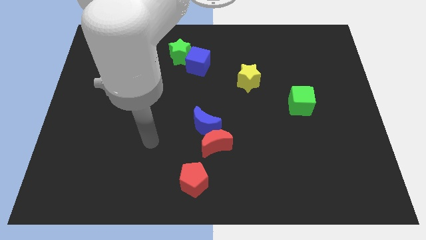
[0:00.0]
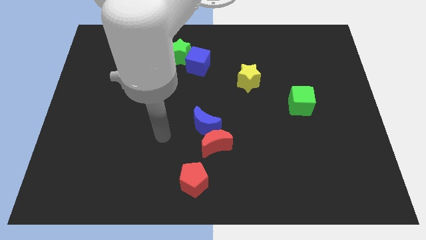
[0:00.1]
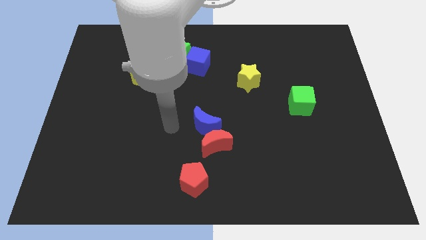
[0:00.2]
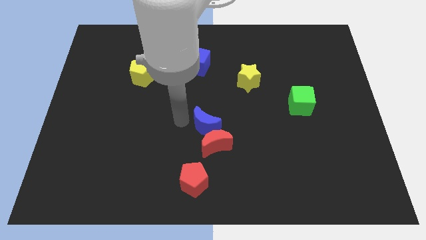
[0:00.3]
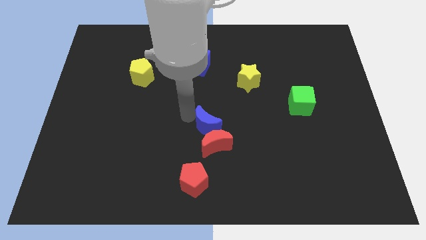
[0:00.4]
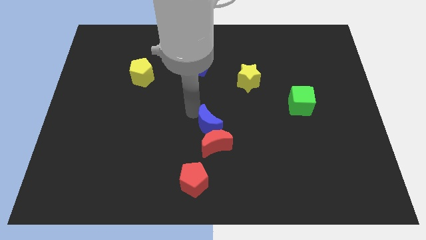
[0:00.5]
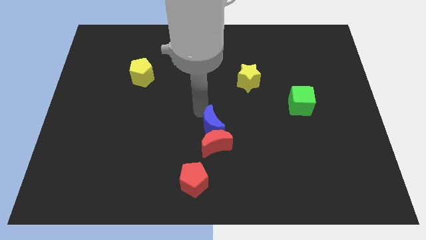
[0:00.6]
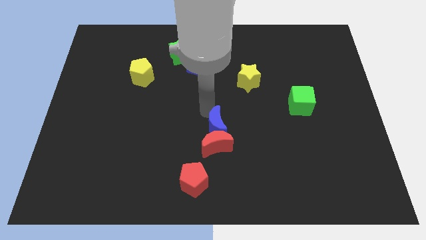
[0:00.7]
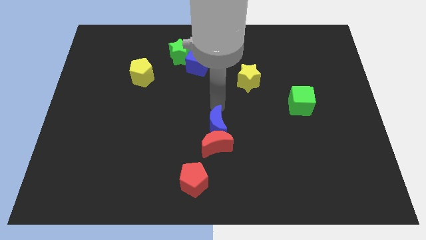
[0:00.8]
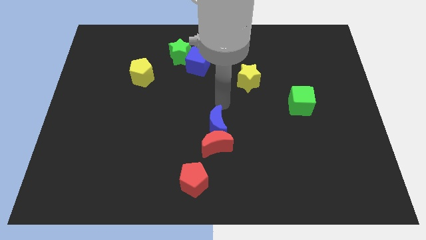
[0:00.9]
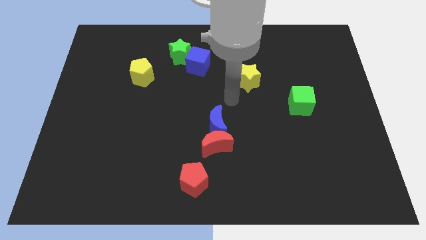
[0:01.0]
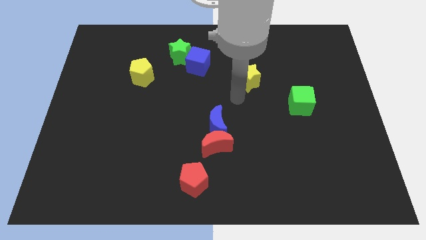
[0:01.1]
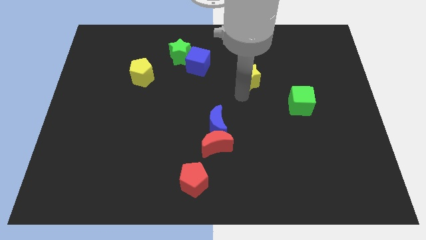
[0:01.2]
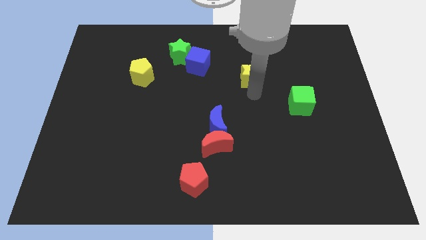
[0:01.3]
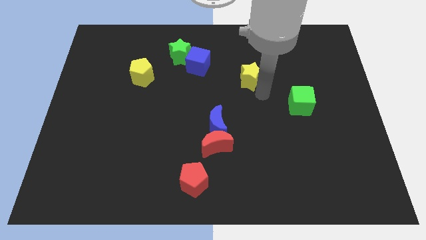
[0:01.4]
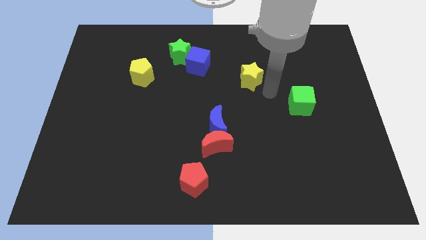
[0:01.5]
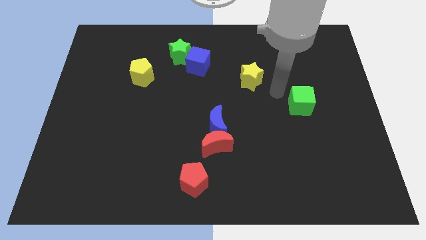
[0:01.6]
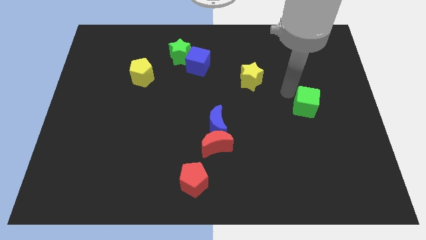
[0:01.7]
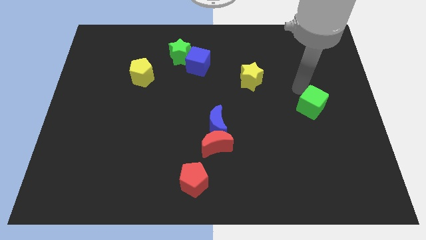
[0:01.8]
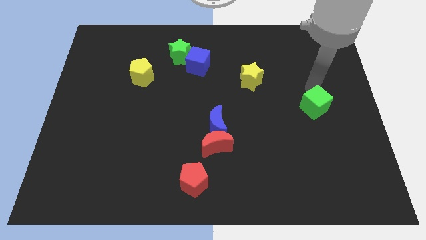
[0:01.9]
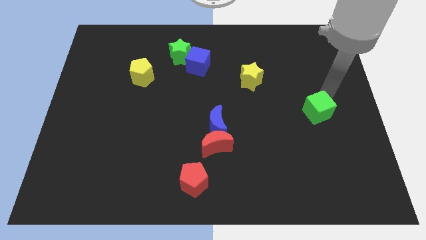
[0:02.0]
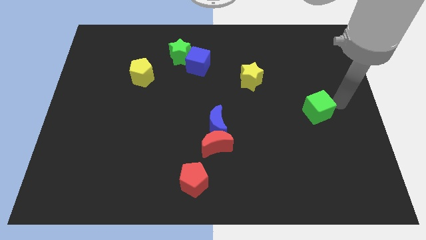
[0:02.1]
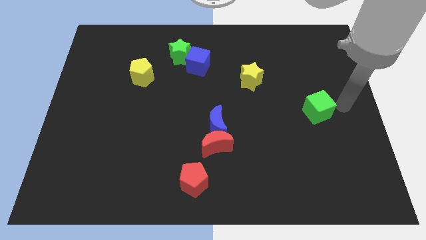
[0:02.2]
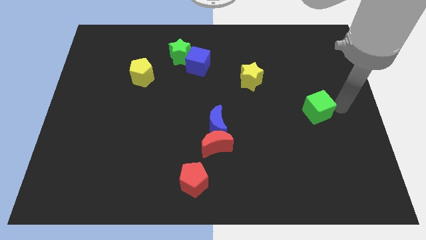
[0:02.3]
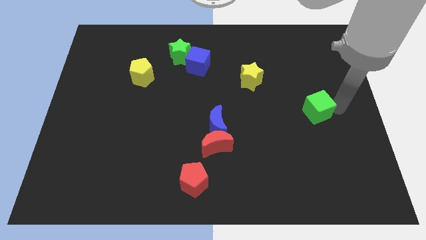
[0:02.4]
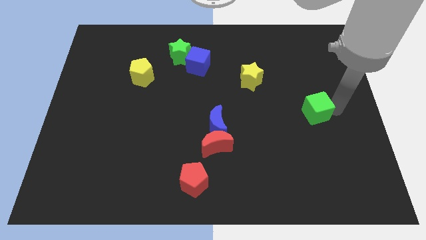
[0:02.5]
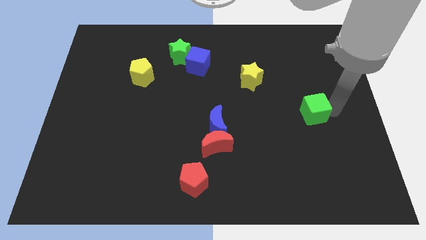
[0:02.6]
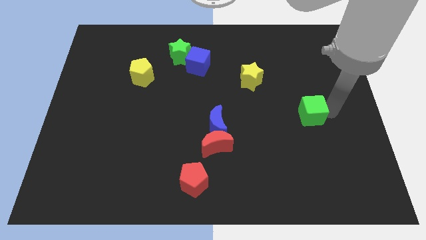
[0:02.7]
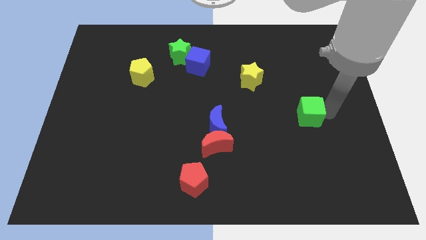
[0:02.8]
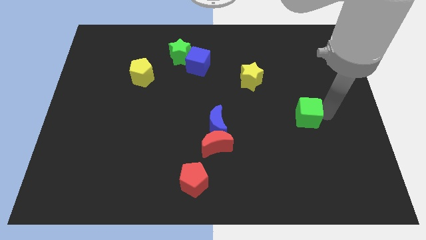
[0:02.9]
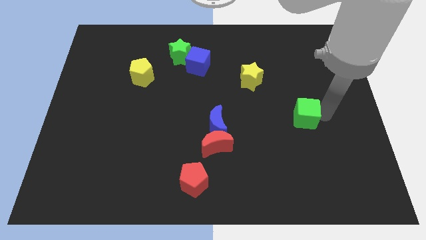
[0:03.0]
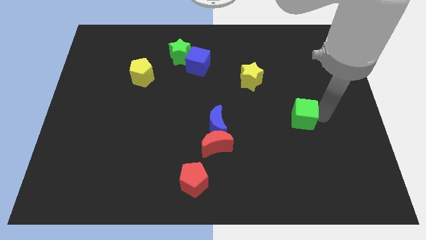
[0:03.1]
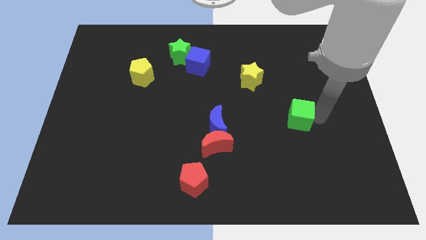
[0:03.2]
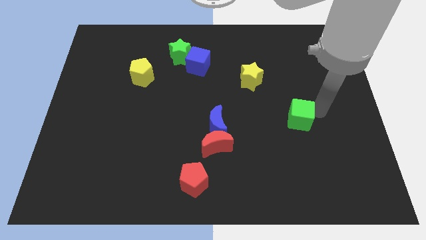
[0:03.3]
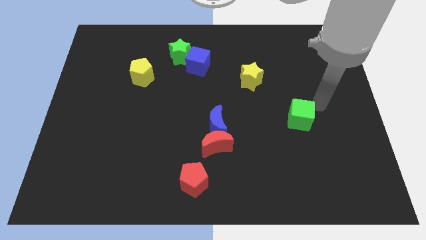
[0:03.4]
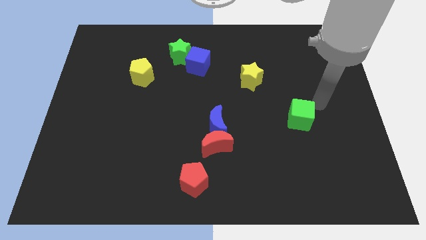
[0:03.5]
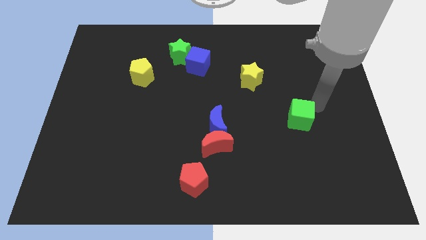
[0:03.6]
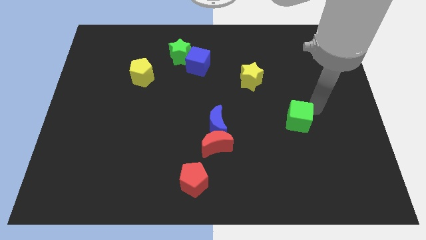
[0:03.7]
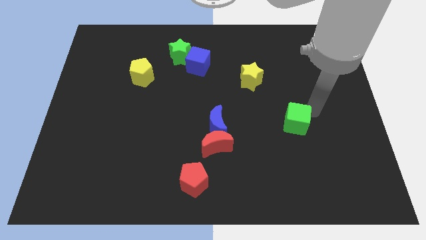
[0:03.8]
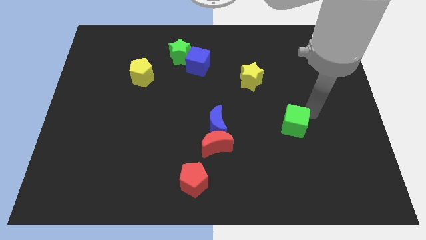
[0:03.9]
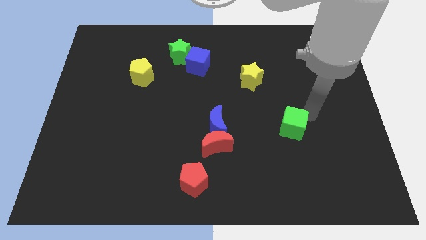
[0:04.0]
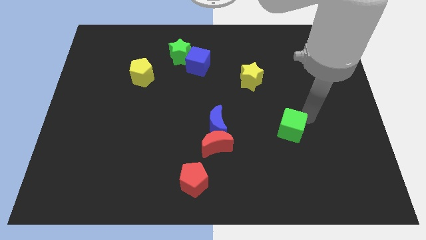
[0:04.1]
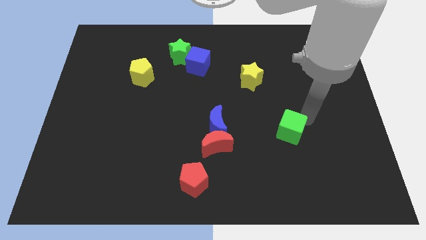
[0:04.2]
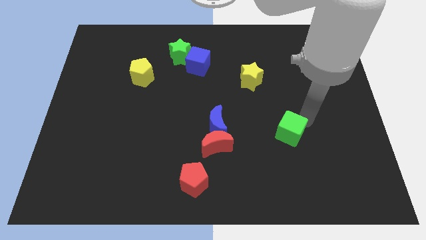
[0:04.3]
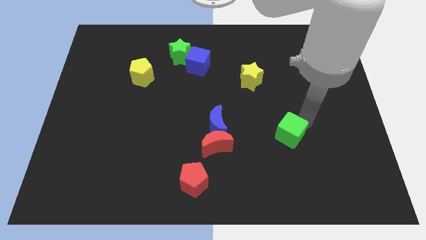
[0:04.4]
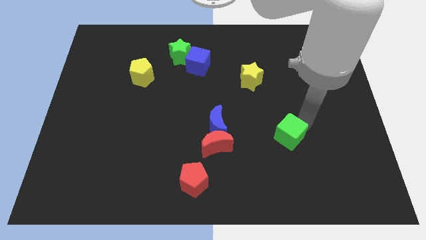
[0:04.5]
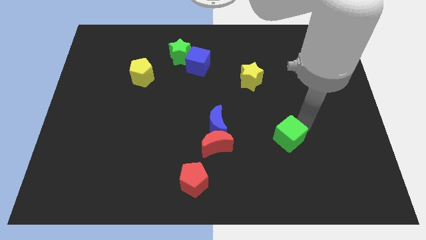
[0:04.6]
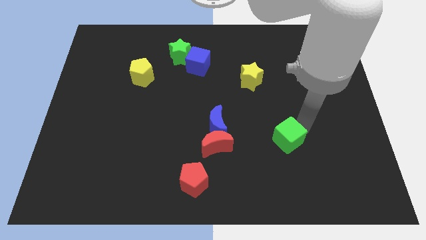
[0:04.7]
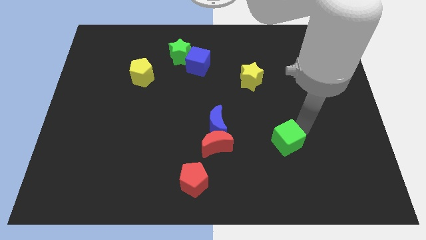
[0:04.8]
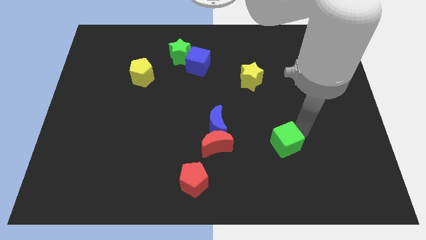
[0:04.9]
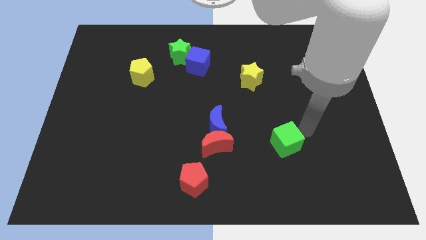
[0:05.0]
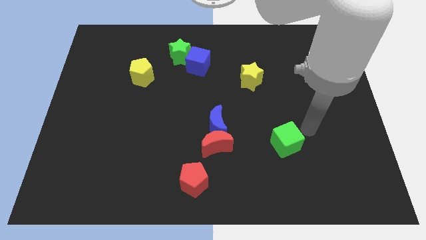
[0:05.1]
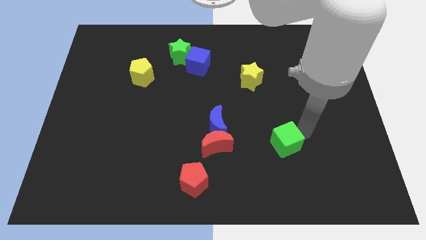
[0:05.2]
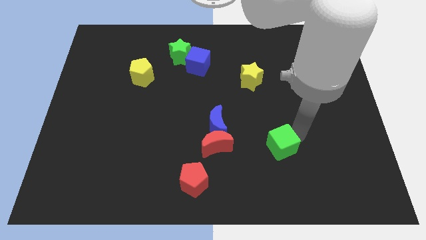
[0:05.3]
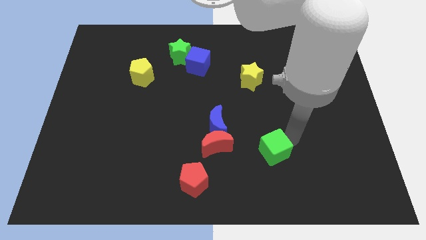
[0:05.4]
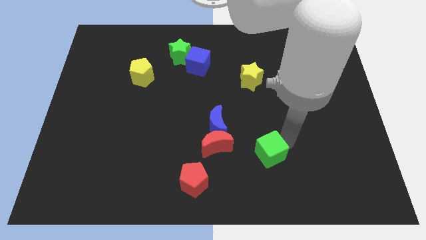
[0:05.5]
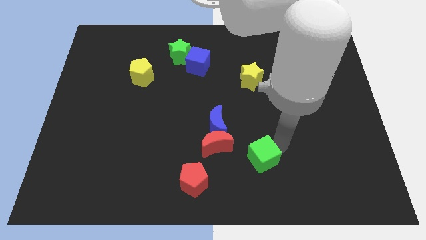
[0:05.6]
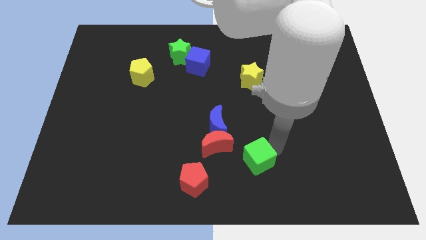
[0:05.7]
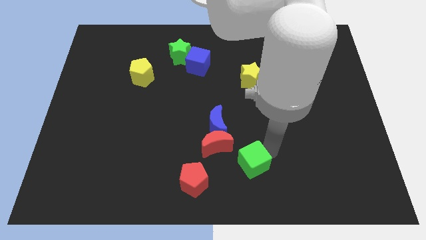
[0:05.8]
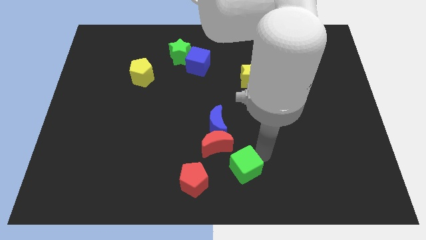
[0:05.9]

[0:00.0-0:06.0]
put the green cube to the bottom side

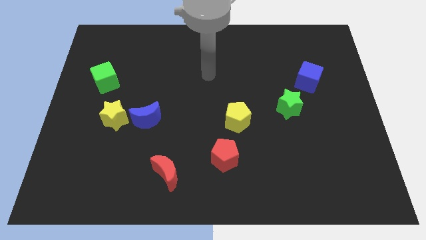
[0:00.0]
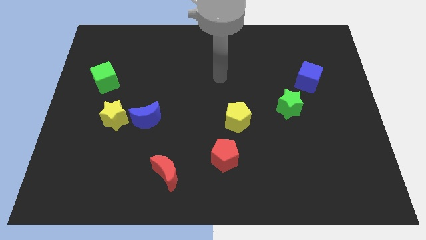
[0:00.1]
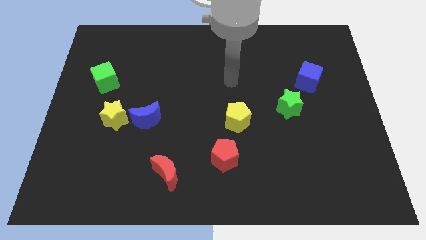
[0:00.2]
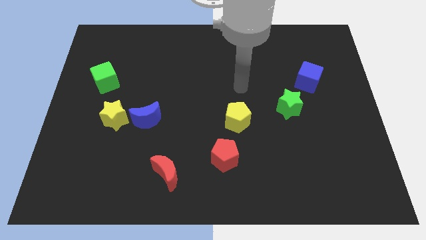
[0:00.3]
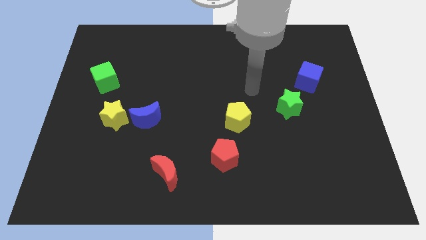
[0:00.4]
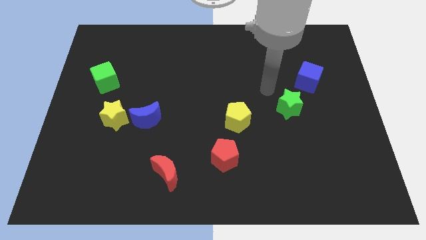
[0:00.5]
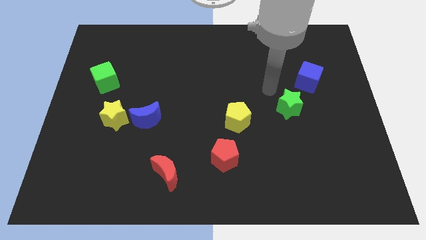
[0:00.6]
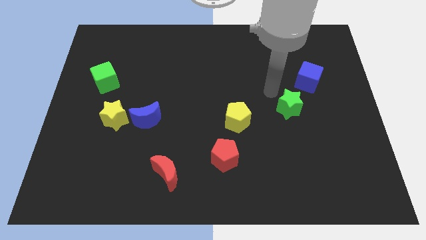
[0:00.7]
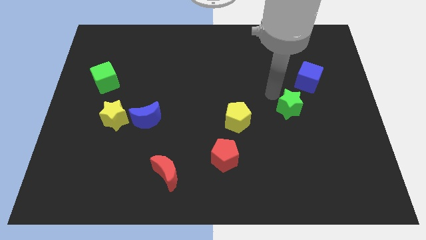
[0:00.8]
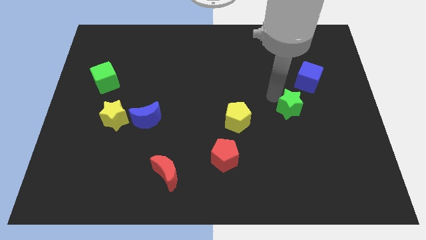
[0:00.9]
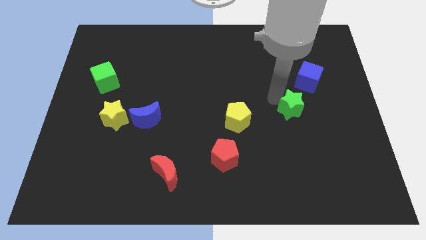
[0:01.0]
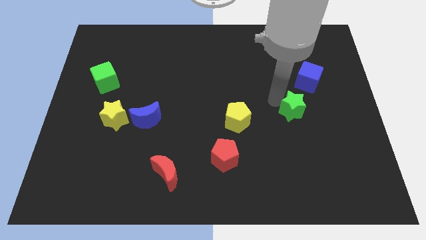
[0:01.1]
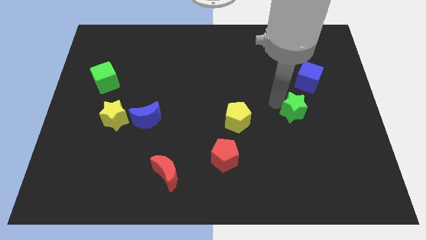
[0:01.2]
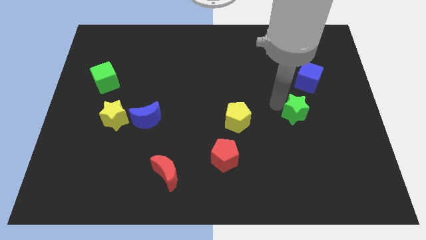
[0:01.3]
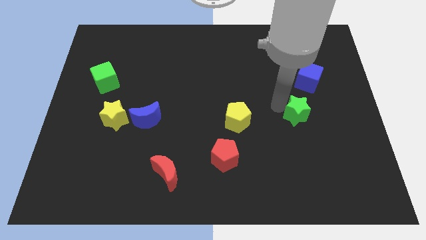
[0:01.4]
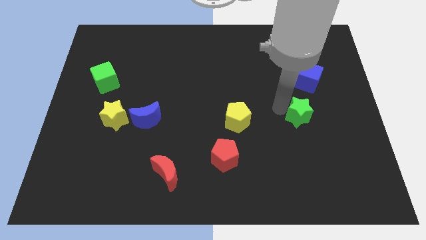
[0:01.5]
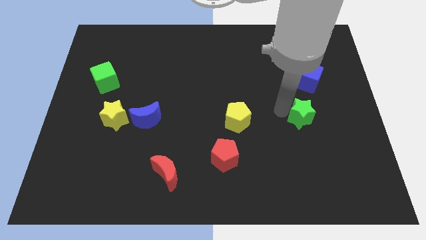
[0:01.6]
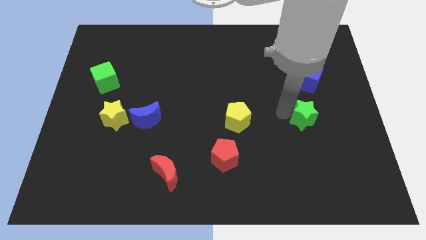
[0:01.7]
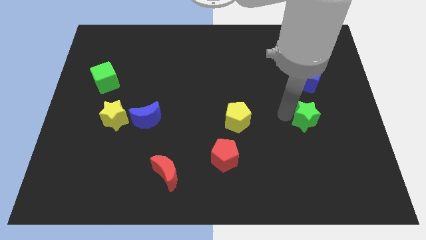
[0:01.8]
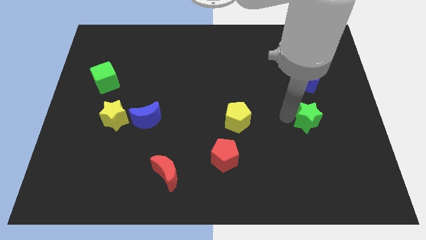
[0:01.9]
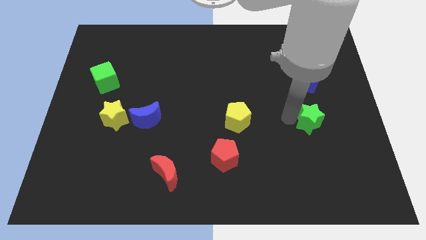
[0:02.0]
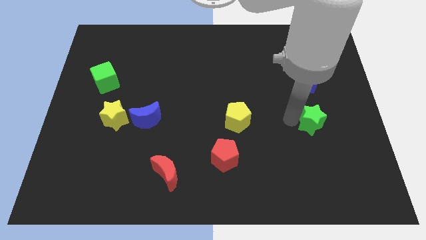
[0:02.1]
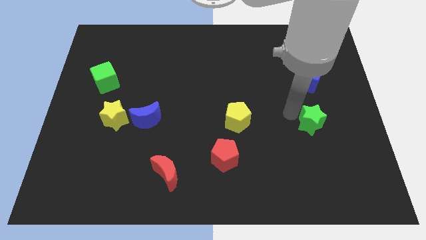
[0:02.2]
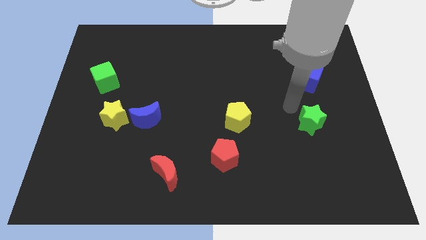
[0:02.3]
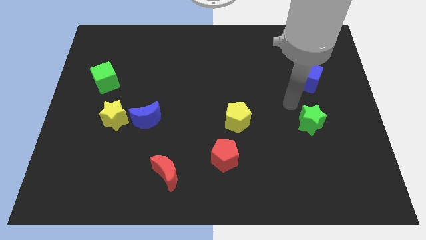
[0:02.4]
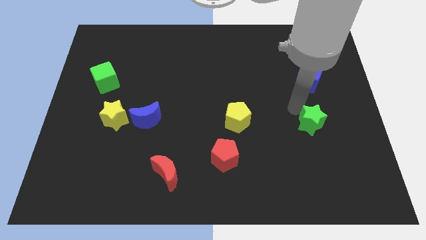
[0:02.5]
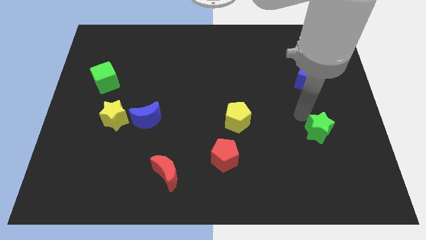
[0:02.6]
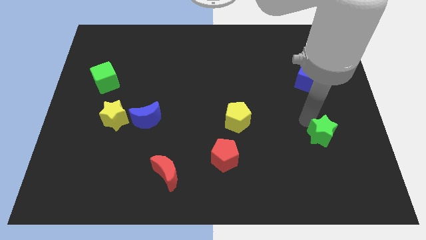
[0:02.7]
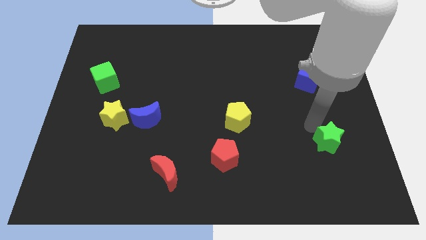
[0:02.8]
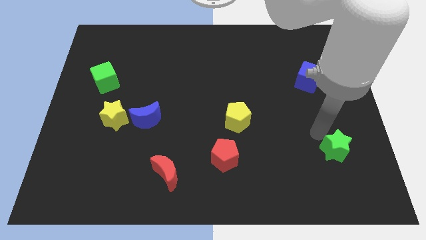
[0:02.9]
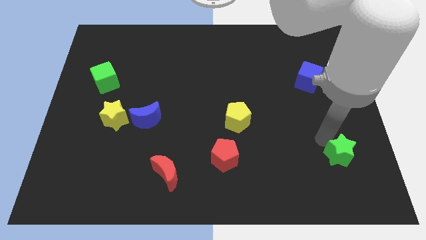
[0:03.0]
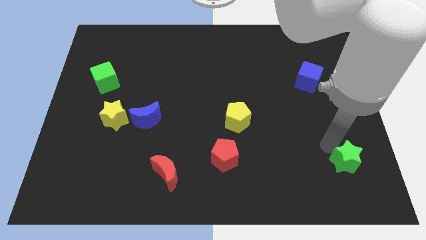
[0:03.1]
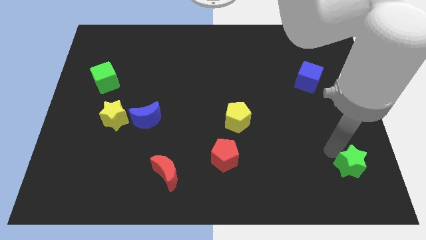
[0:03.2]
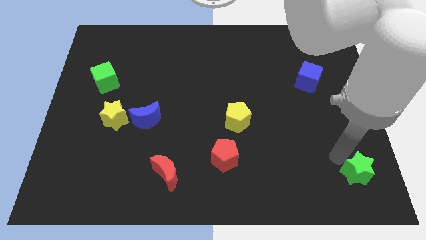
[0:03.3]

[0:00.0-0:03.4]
slide the green star to the lower right corner
